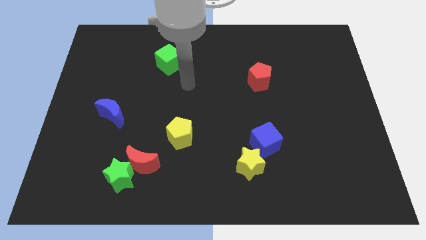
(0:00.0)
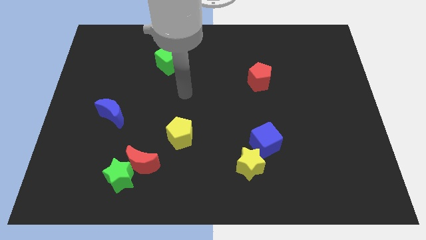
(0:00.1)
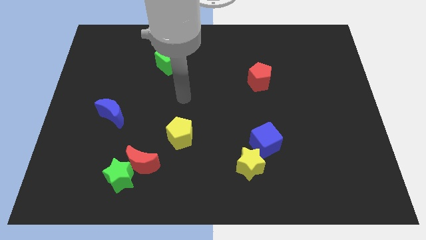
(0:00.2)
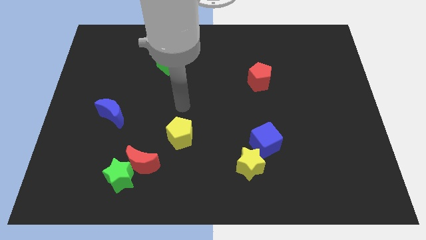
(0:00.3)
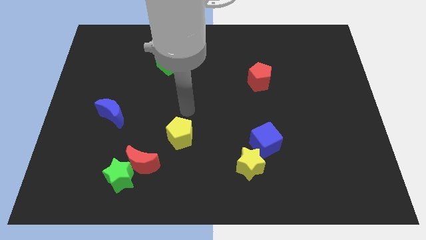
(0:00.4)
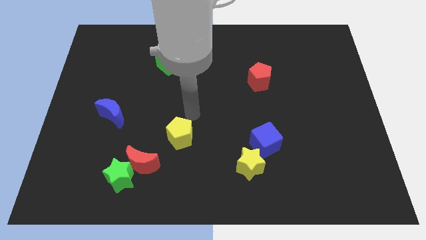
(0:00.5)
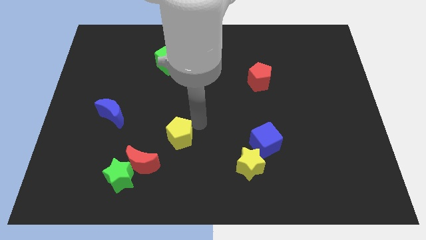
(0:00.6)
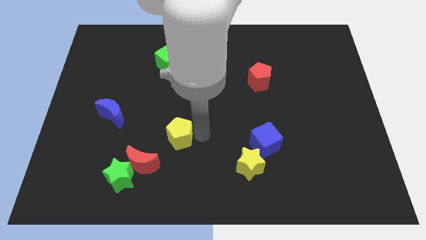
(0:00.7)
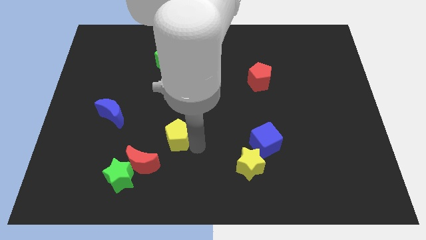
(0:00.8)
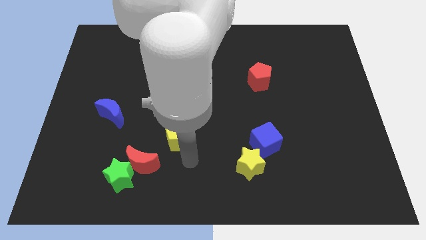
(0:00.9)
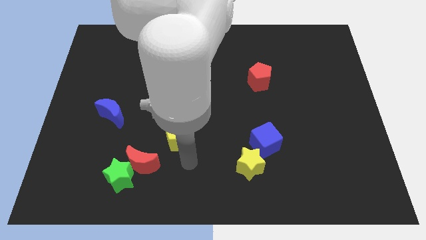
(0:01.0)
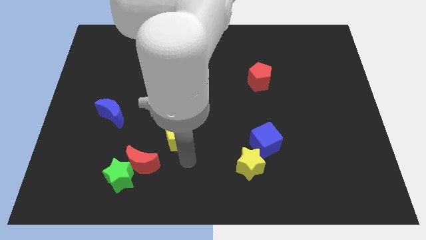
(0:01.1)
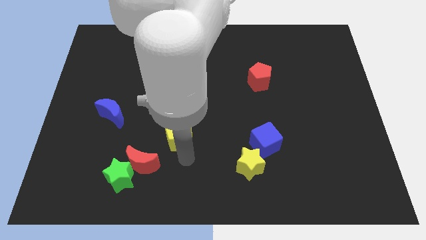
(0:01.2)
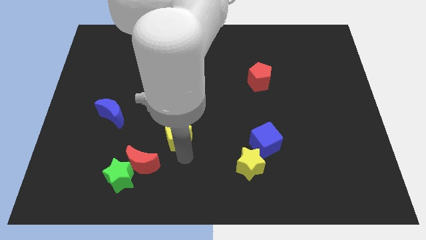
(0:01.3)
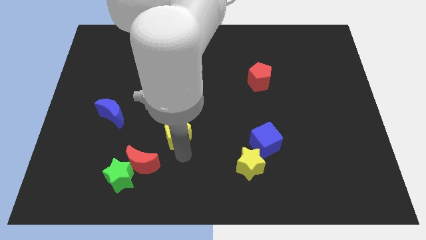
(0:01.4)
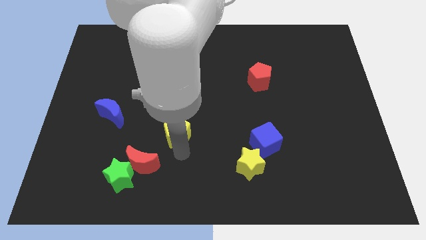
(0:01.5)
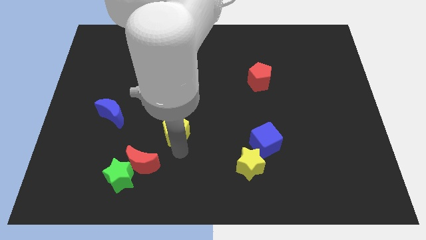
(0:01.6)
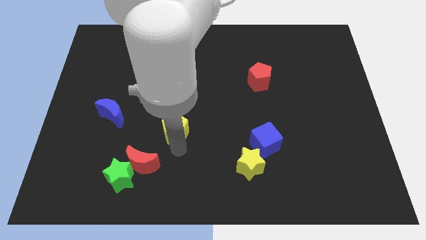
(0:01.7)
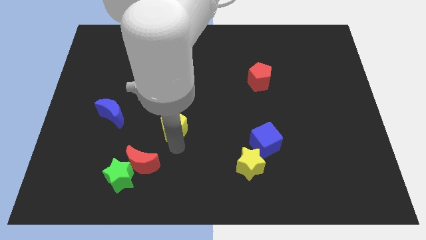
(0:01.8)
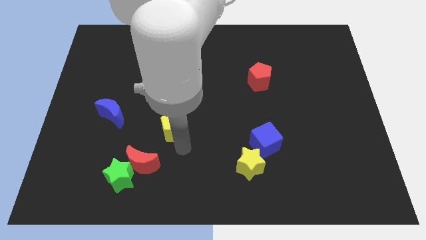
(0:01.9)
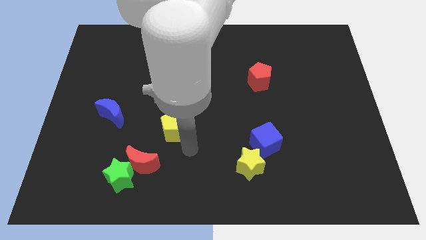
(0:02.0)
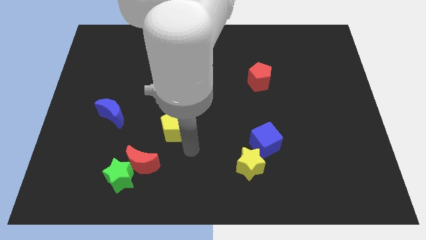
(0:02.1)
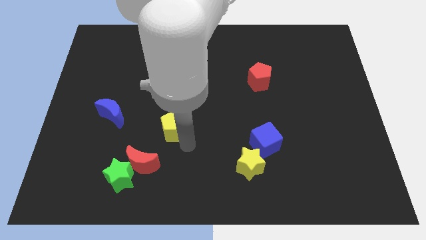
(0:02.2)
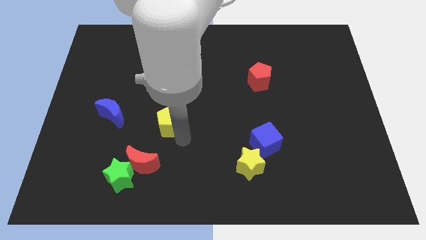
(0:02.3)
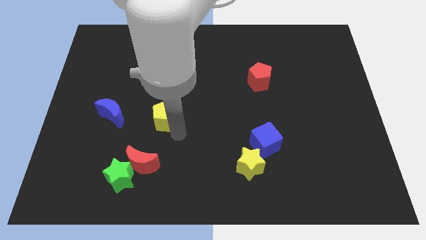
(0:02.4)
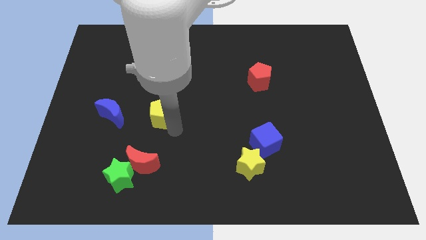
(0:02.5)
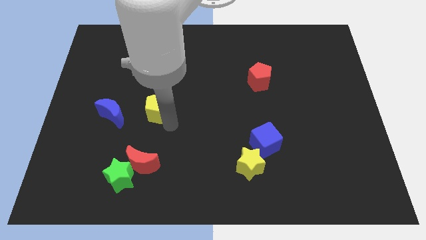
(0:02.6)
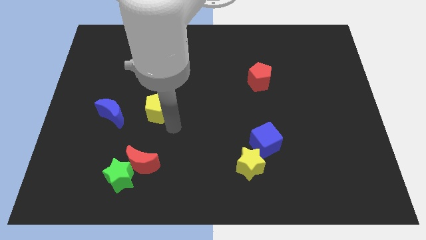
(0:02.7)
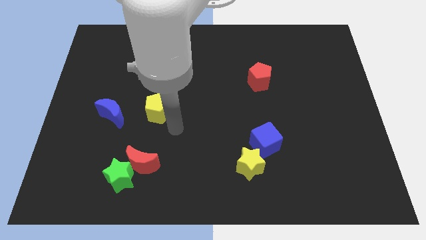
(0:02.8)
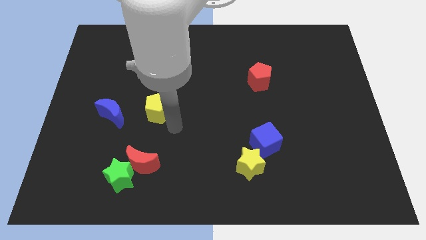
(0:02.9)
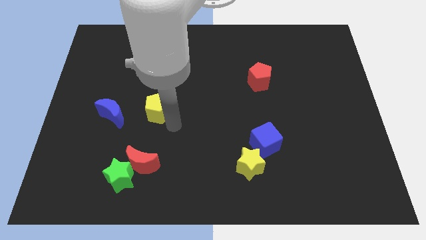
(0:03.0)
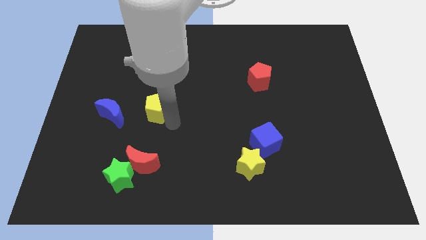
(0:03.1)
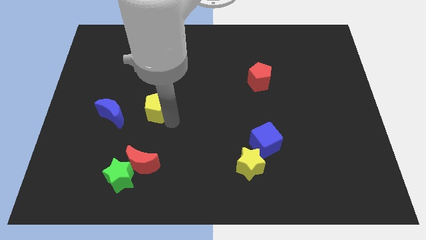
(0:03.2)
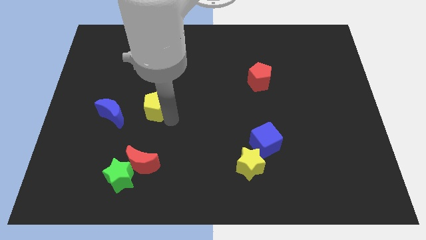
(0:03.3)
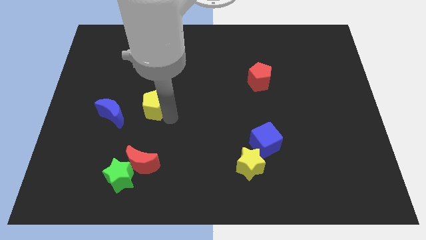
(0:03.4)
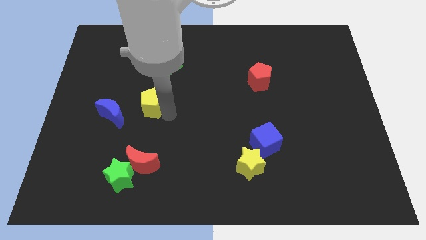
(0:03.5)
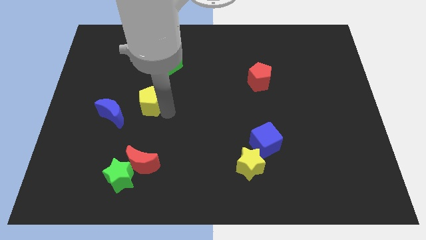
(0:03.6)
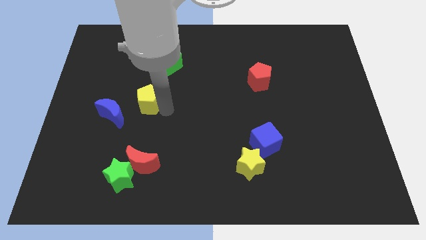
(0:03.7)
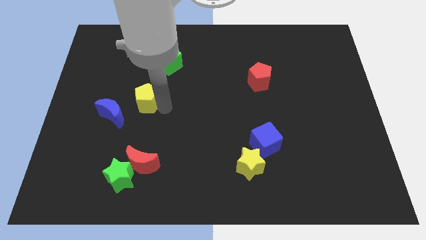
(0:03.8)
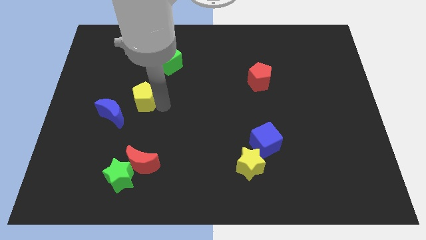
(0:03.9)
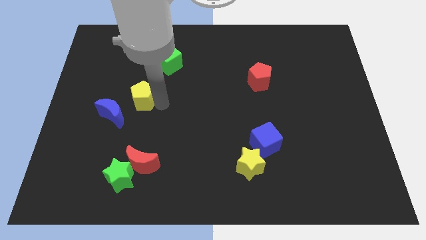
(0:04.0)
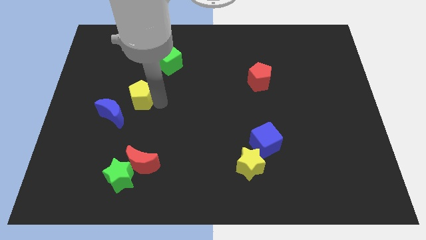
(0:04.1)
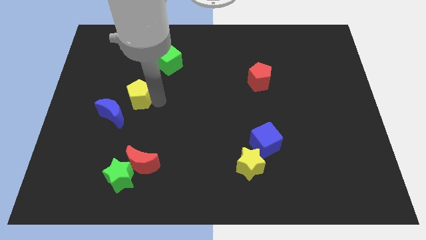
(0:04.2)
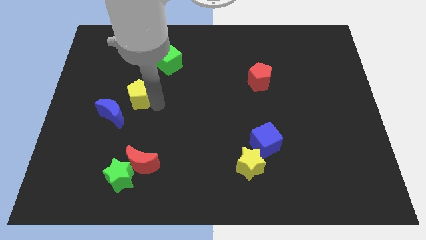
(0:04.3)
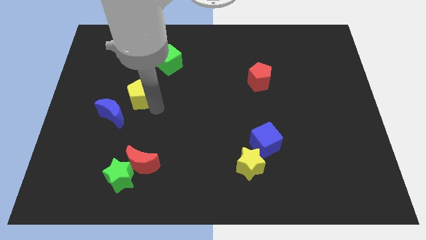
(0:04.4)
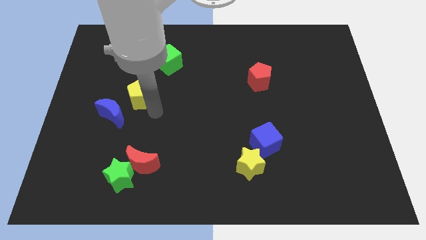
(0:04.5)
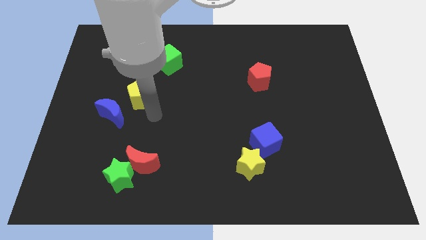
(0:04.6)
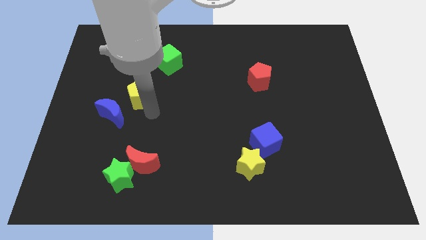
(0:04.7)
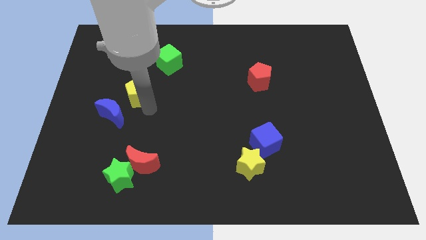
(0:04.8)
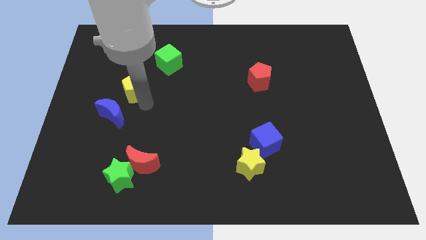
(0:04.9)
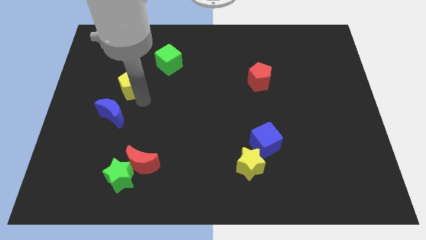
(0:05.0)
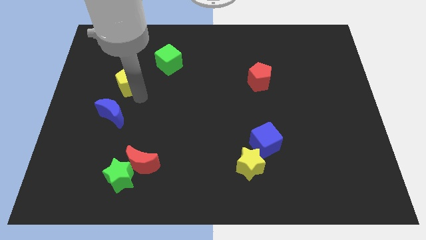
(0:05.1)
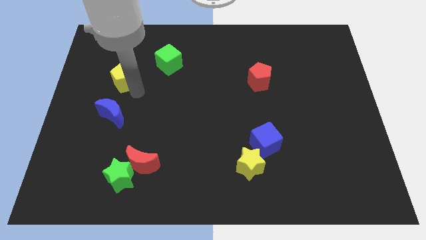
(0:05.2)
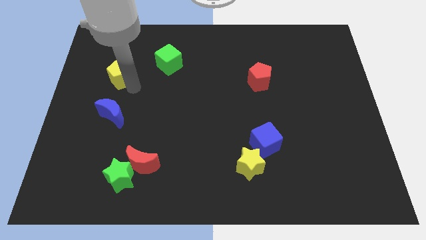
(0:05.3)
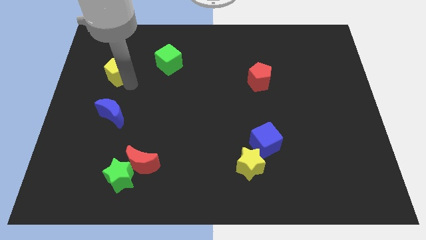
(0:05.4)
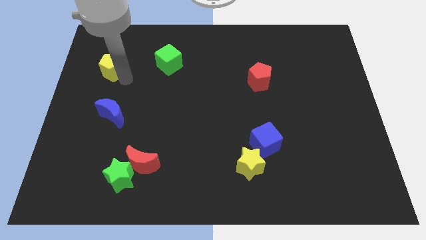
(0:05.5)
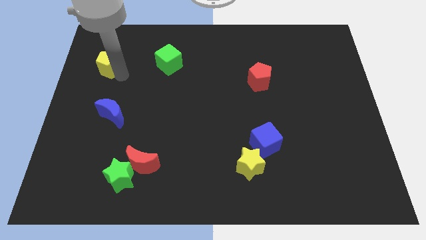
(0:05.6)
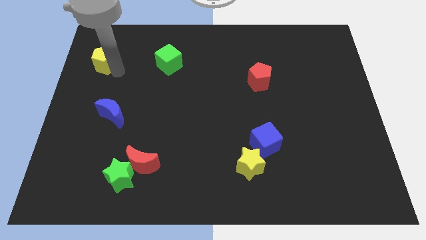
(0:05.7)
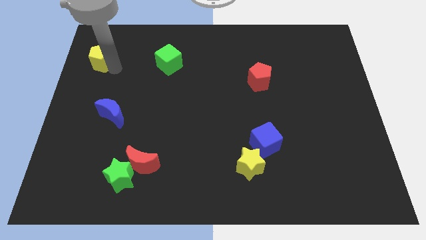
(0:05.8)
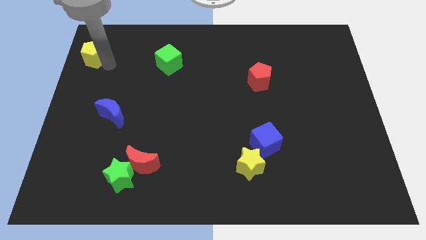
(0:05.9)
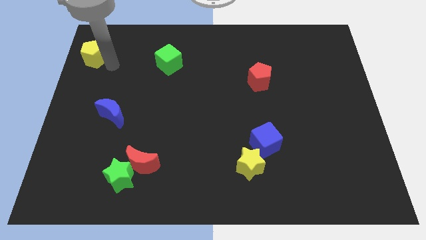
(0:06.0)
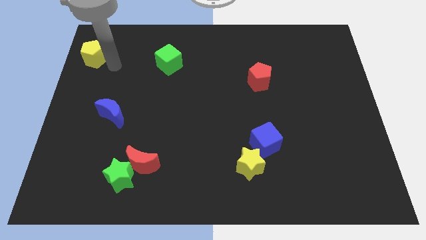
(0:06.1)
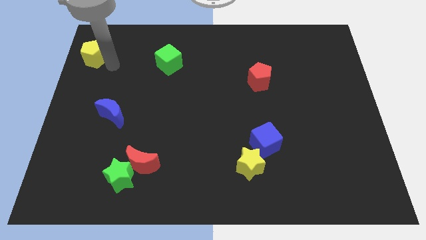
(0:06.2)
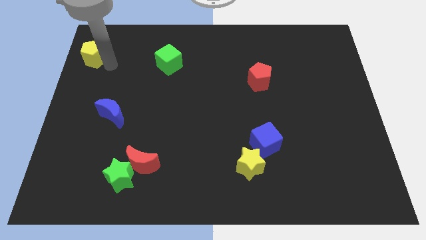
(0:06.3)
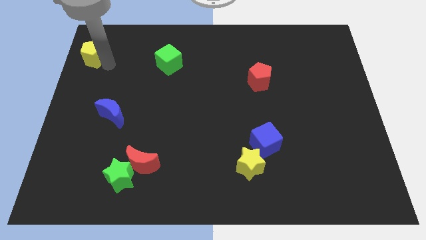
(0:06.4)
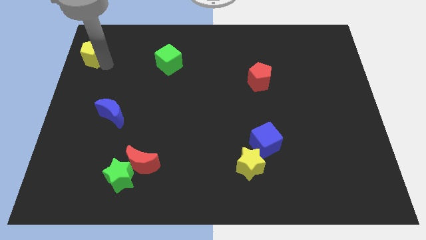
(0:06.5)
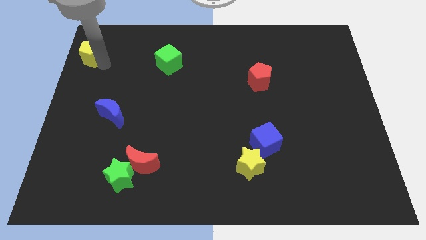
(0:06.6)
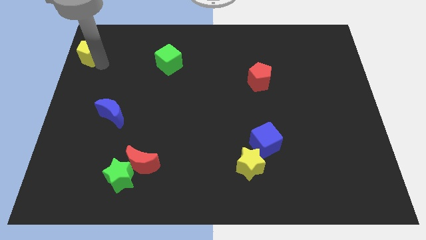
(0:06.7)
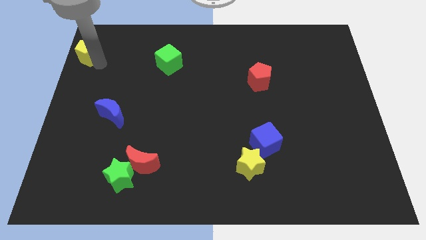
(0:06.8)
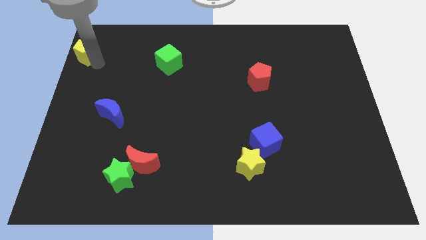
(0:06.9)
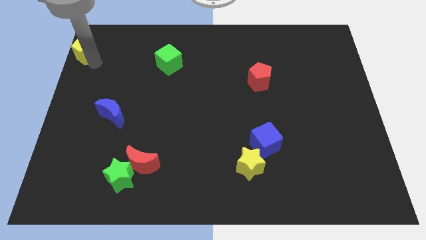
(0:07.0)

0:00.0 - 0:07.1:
slide the yellow pentagon to the top left corner

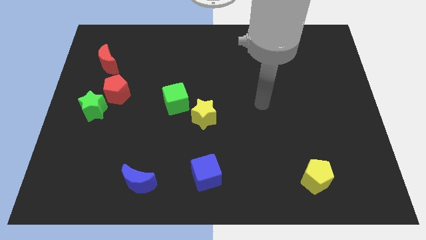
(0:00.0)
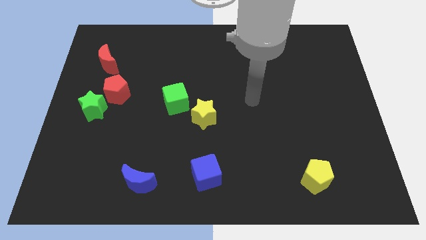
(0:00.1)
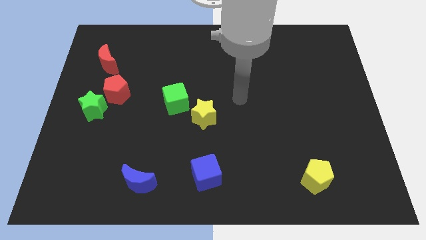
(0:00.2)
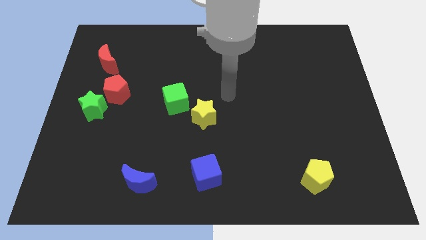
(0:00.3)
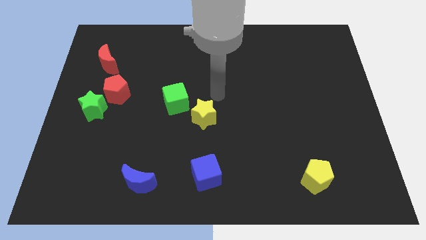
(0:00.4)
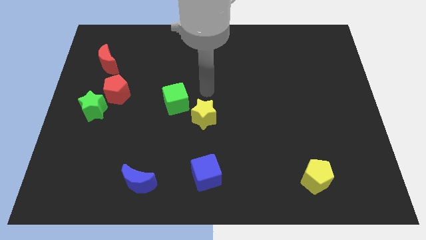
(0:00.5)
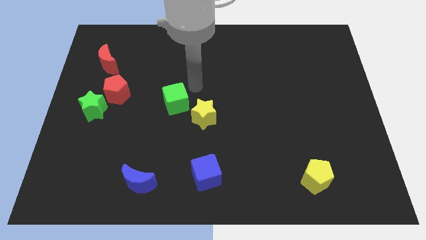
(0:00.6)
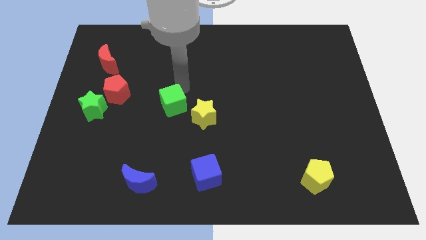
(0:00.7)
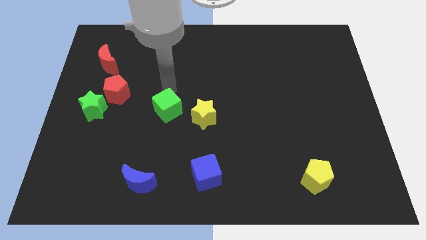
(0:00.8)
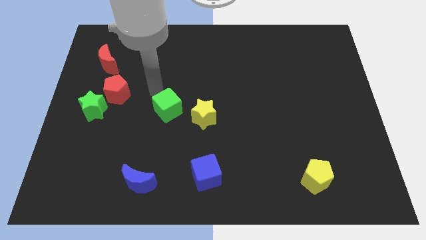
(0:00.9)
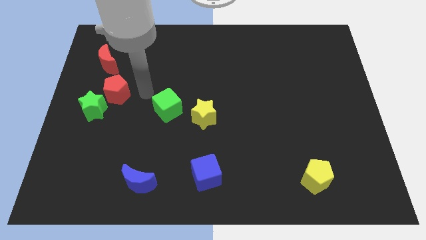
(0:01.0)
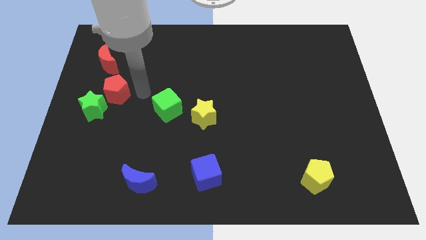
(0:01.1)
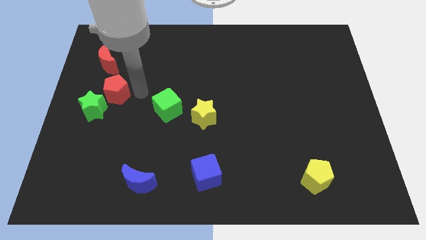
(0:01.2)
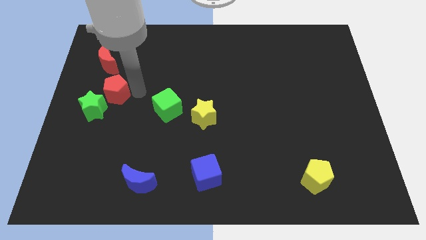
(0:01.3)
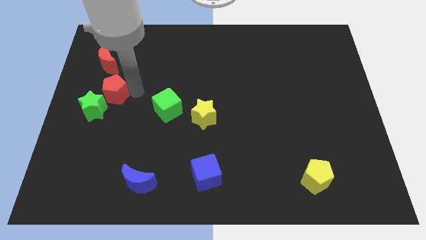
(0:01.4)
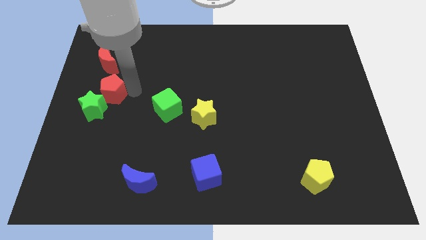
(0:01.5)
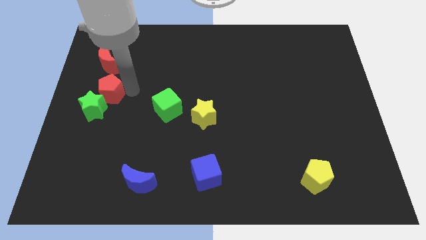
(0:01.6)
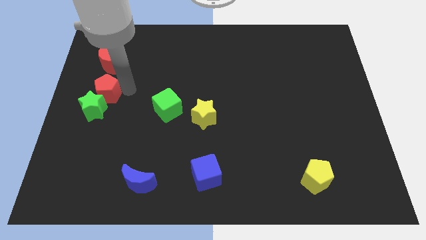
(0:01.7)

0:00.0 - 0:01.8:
put the red pentagon to the left side of the board
